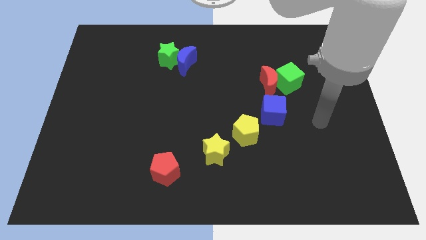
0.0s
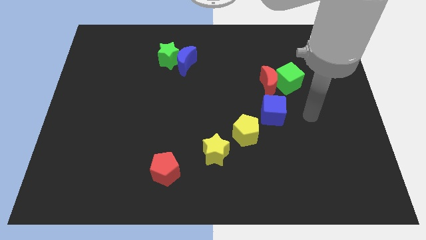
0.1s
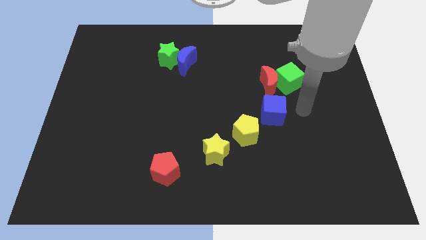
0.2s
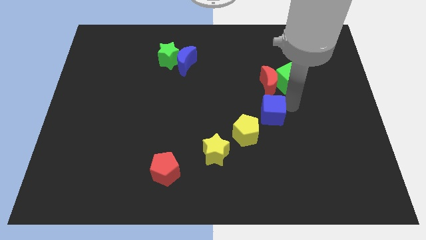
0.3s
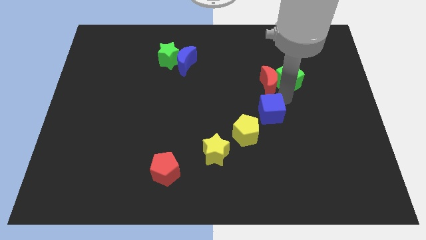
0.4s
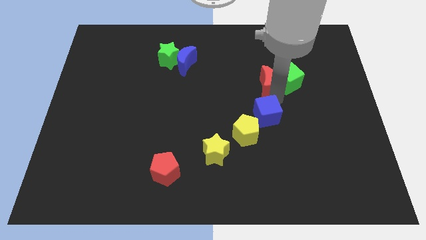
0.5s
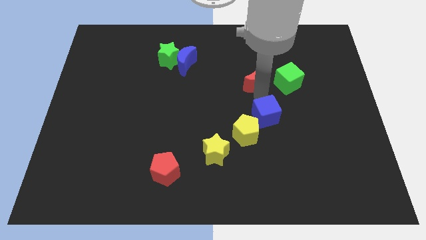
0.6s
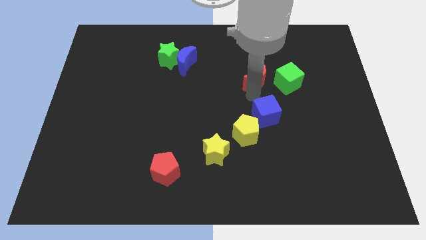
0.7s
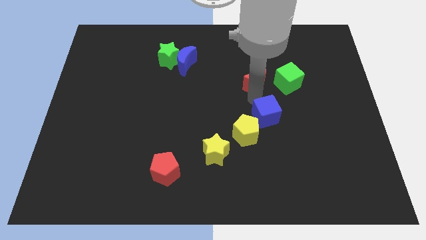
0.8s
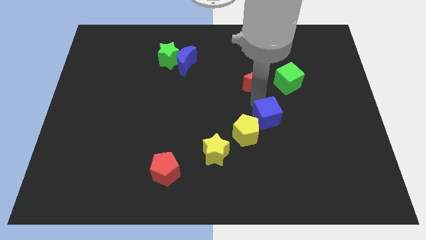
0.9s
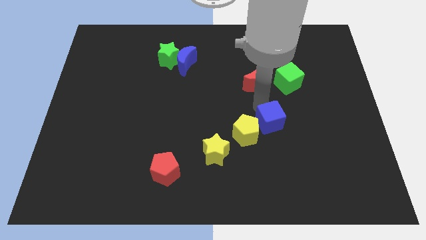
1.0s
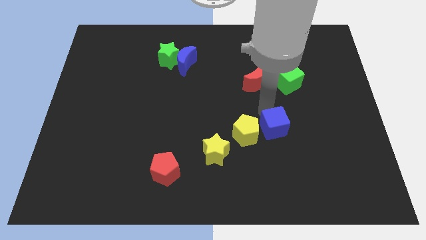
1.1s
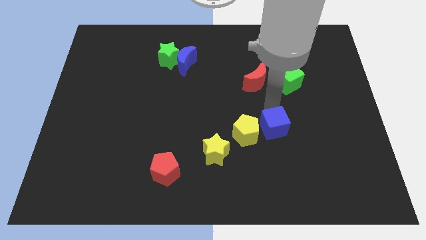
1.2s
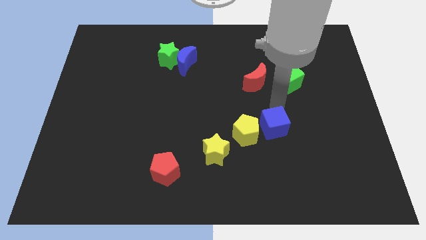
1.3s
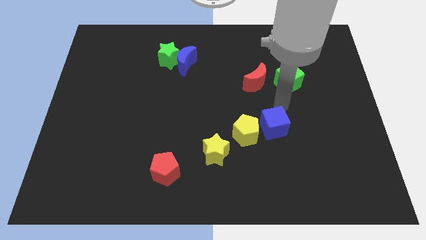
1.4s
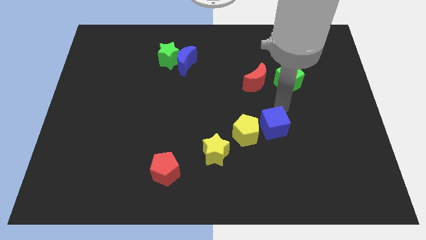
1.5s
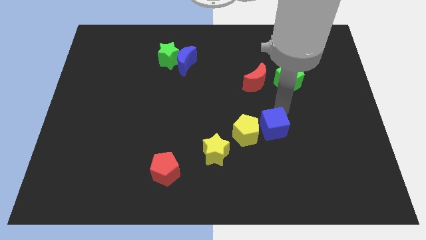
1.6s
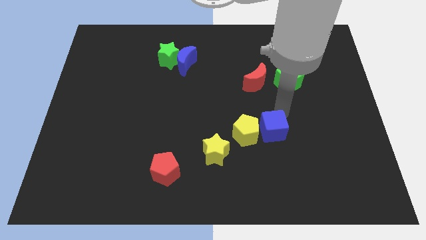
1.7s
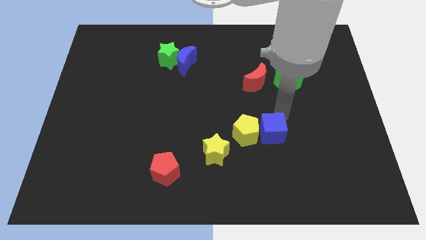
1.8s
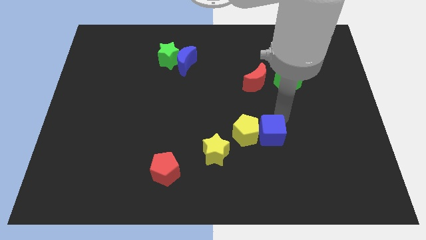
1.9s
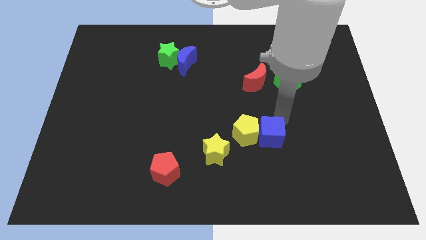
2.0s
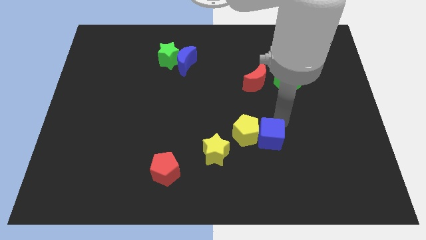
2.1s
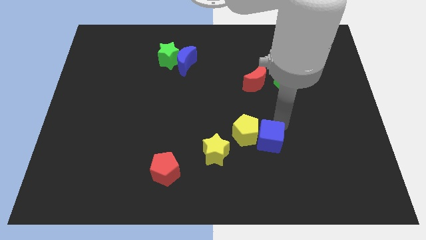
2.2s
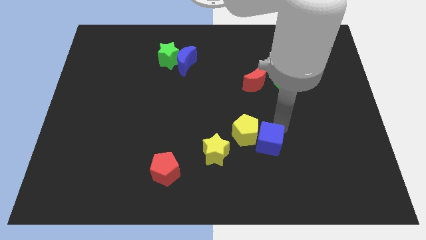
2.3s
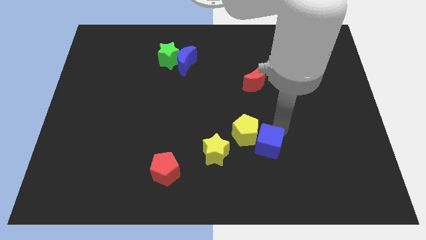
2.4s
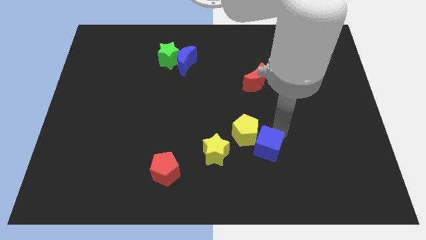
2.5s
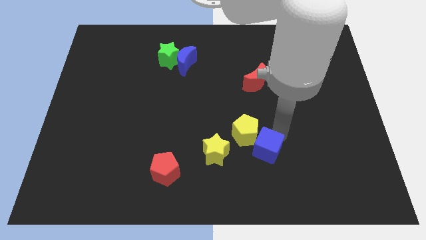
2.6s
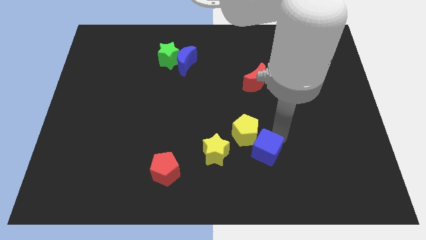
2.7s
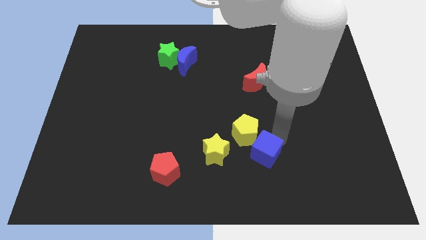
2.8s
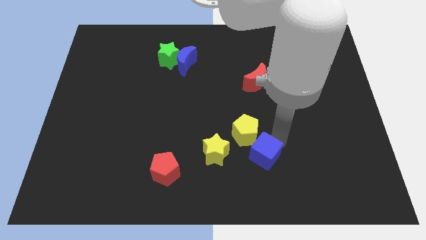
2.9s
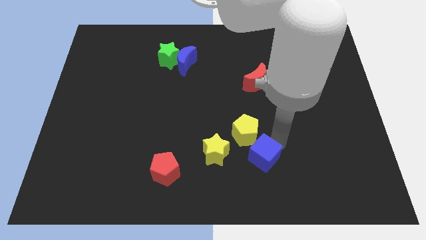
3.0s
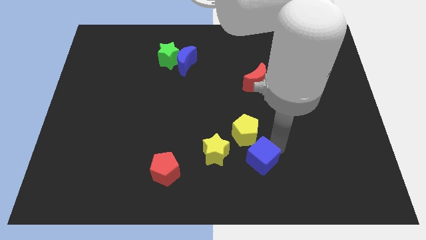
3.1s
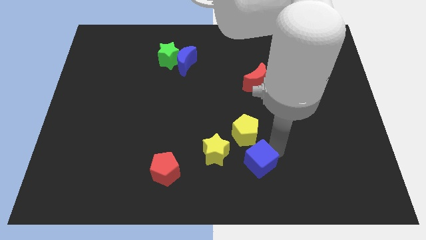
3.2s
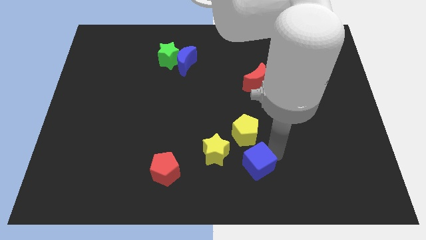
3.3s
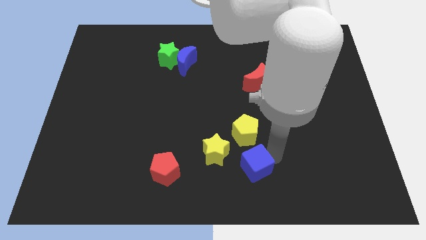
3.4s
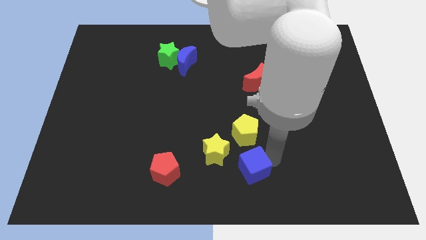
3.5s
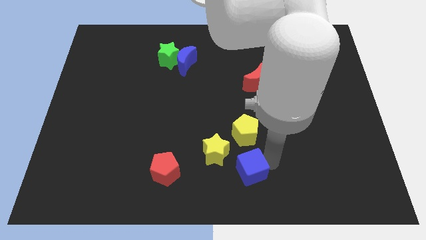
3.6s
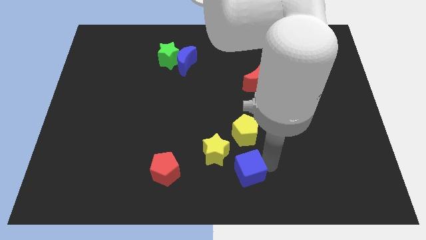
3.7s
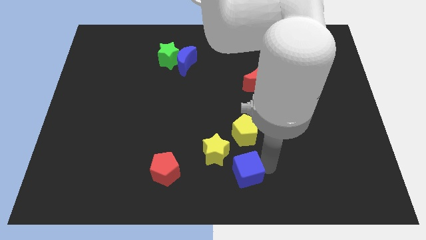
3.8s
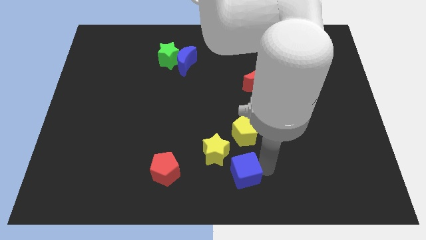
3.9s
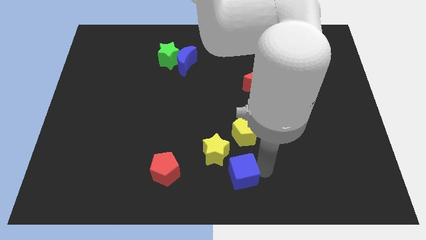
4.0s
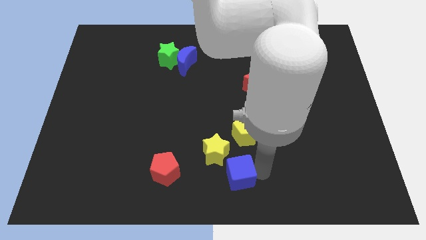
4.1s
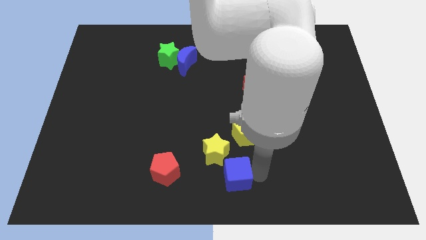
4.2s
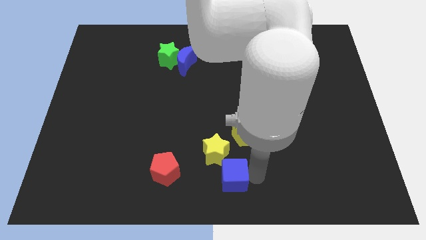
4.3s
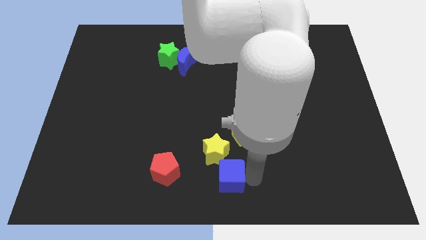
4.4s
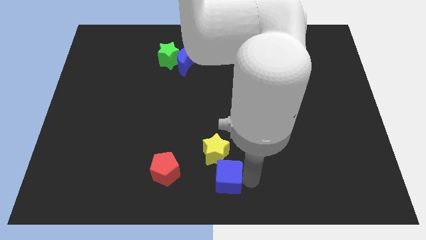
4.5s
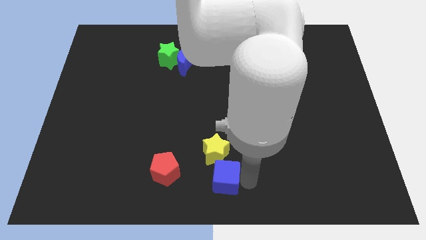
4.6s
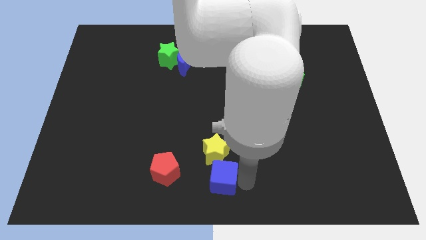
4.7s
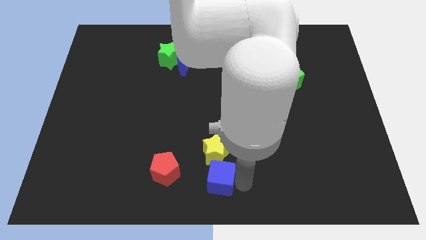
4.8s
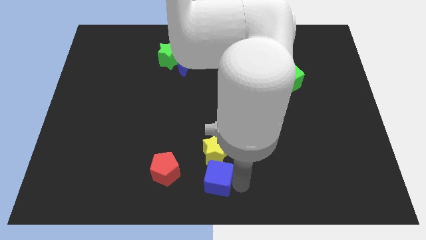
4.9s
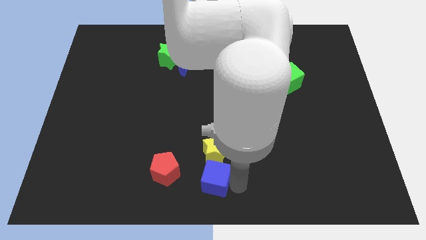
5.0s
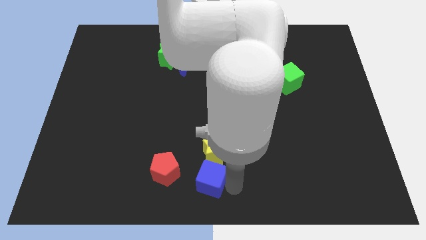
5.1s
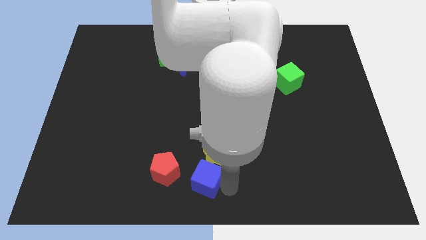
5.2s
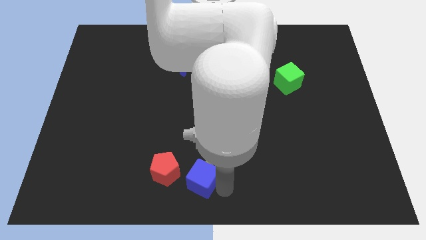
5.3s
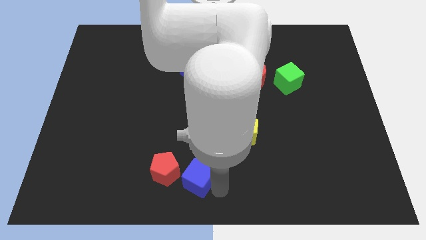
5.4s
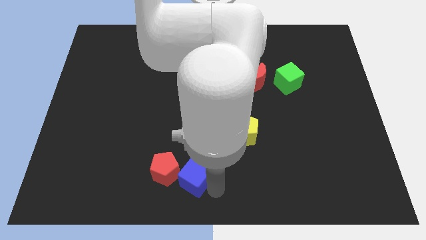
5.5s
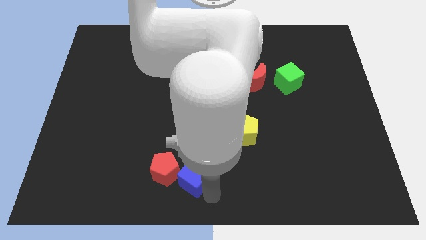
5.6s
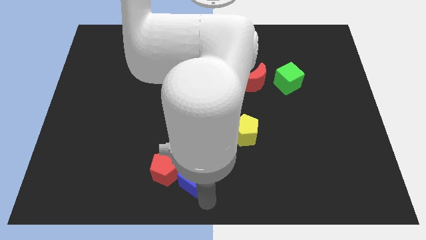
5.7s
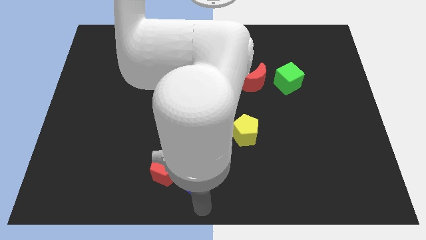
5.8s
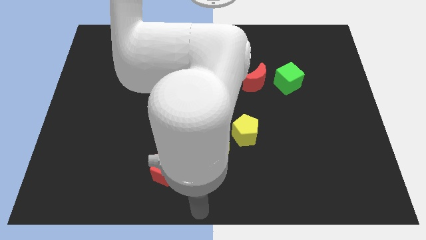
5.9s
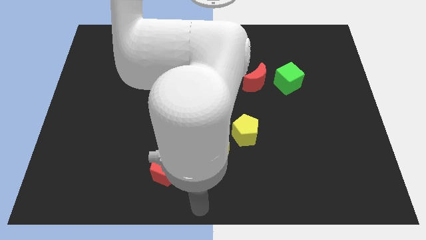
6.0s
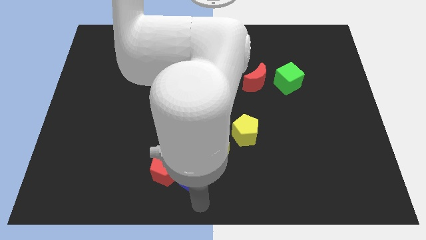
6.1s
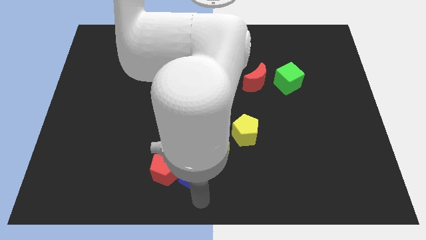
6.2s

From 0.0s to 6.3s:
put the blue cube diagonally up and to the right of the red pentagon

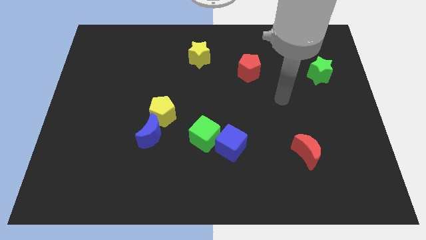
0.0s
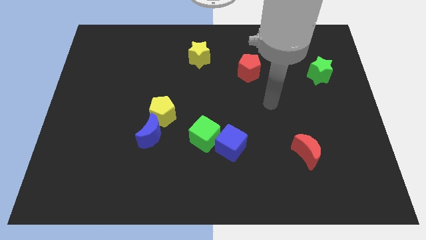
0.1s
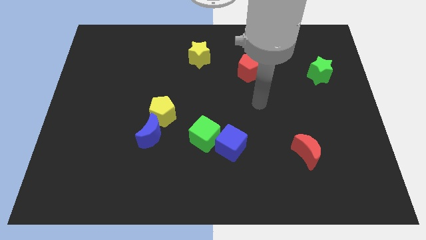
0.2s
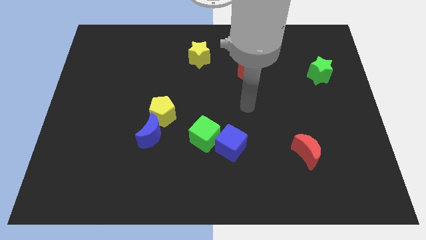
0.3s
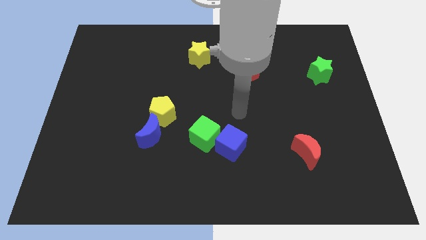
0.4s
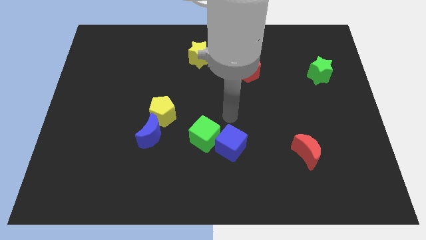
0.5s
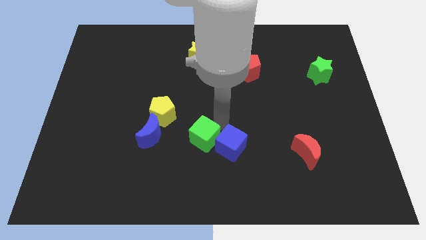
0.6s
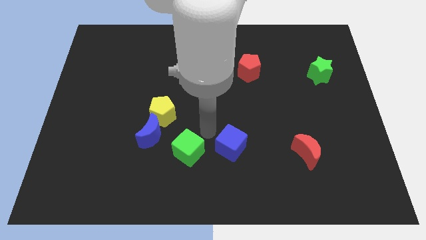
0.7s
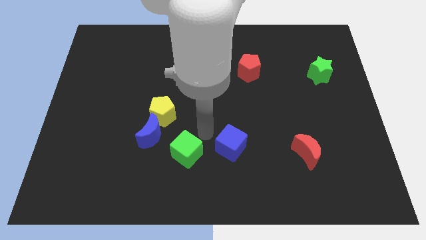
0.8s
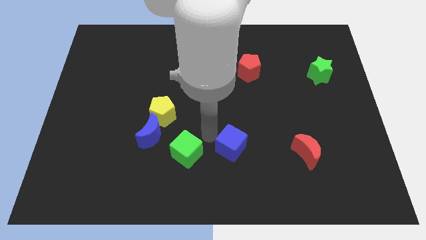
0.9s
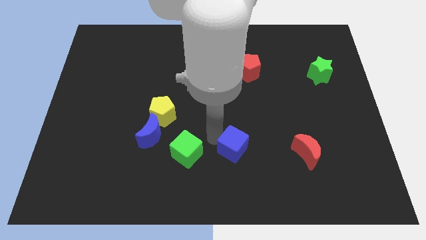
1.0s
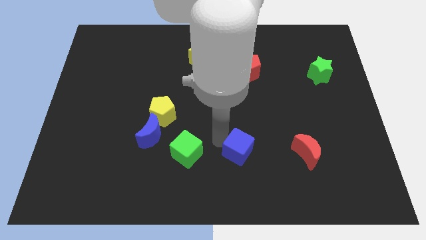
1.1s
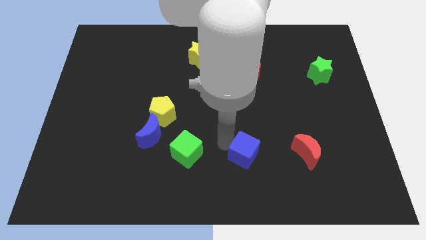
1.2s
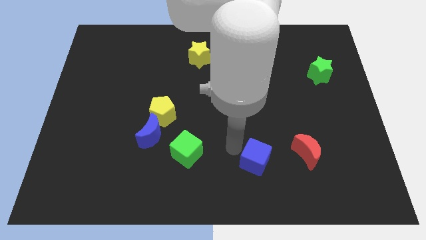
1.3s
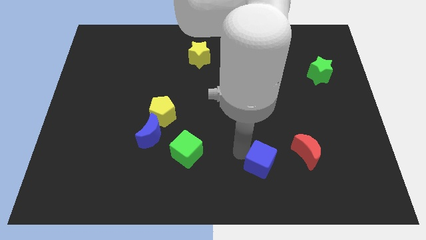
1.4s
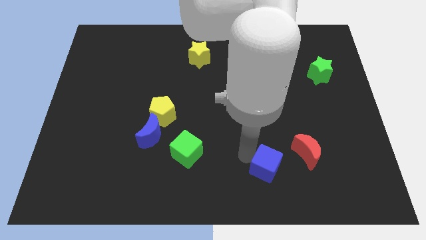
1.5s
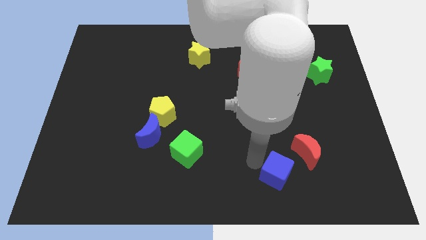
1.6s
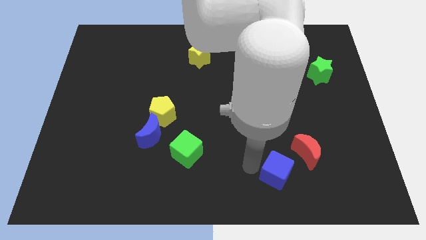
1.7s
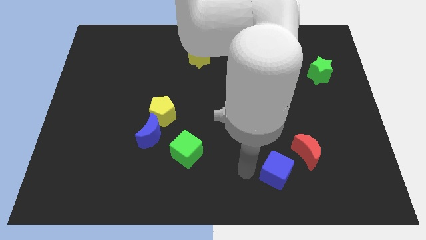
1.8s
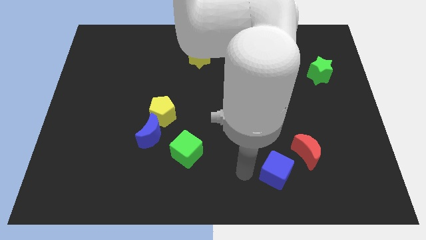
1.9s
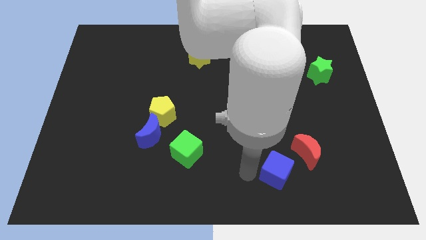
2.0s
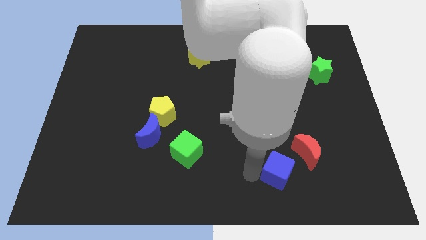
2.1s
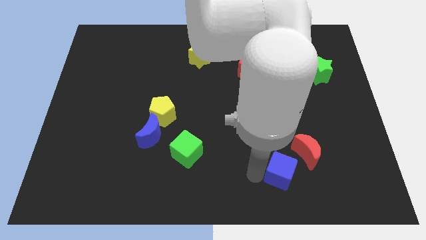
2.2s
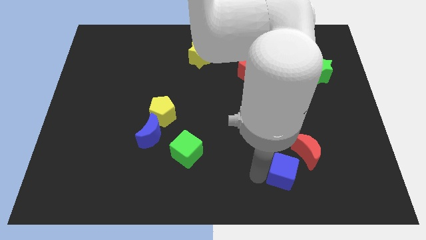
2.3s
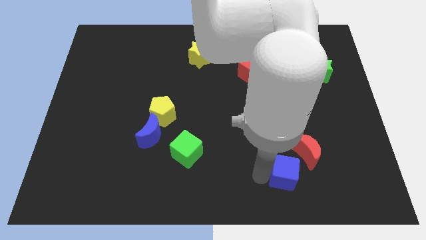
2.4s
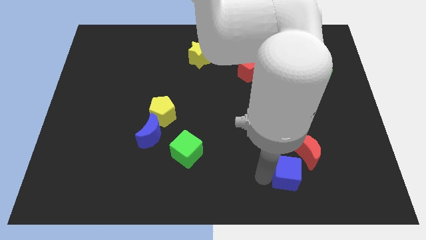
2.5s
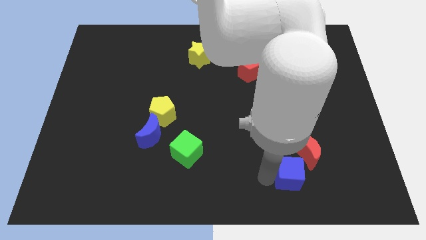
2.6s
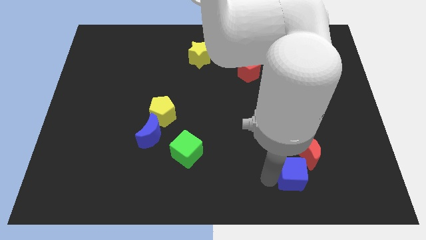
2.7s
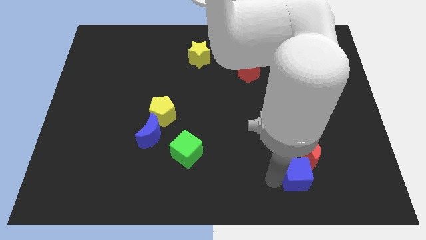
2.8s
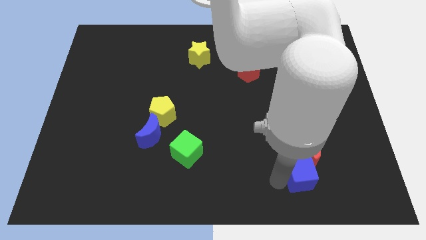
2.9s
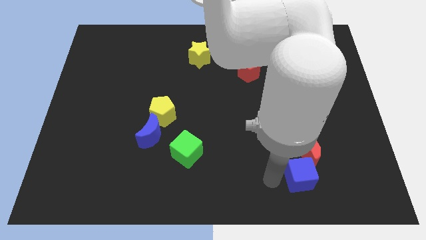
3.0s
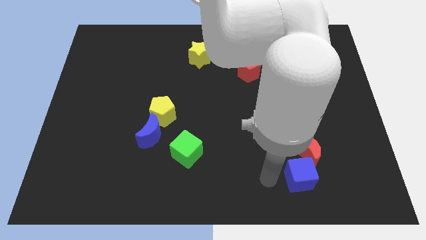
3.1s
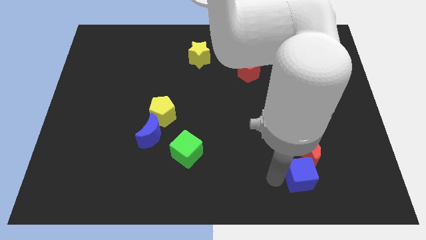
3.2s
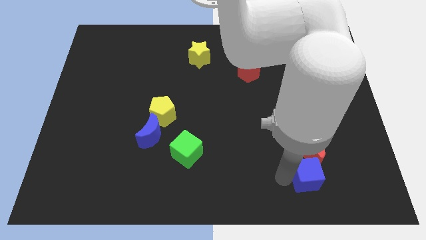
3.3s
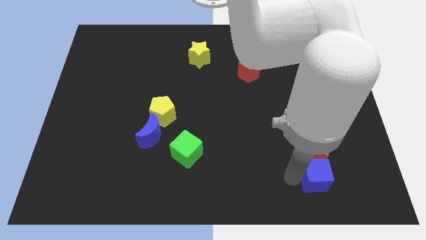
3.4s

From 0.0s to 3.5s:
move the blue cube diagonally down and to the right of the red moon
